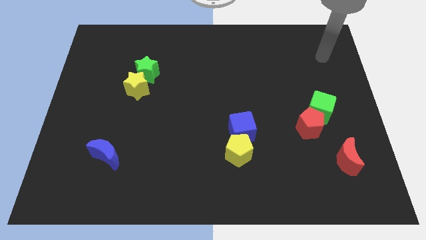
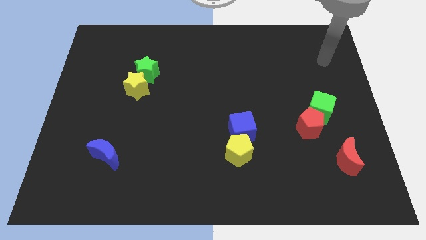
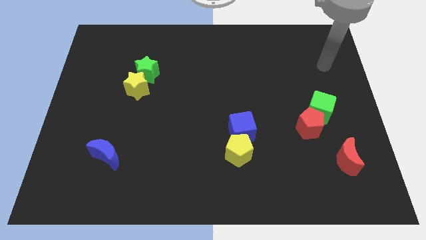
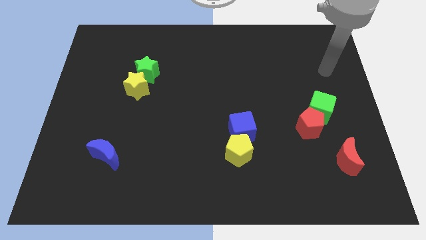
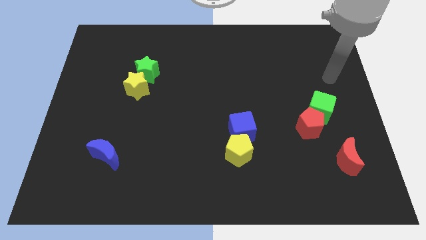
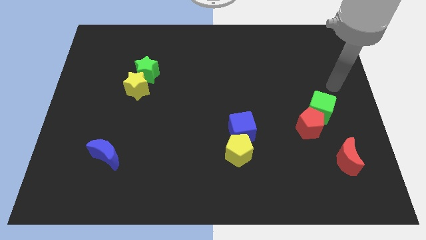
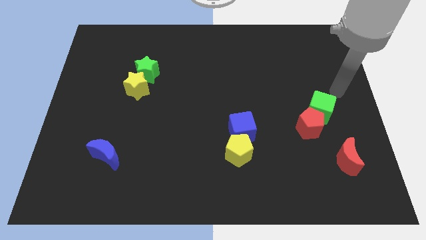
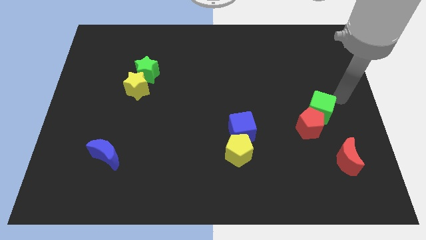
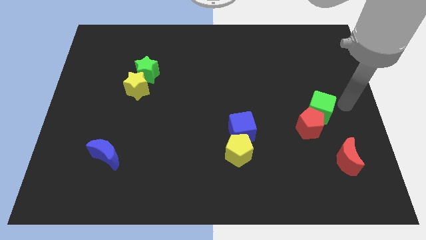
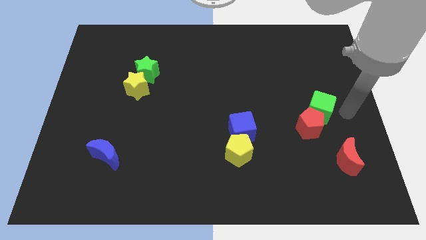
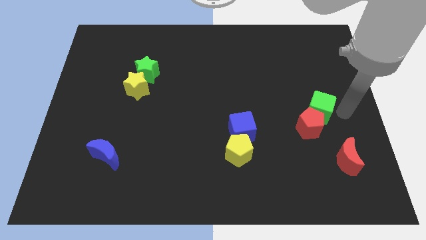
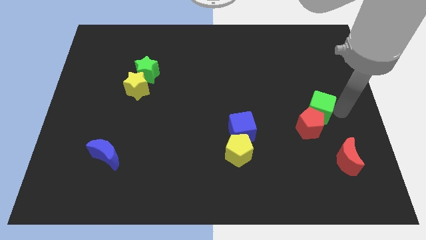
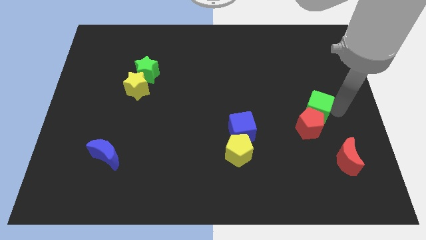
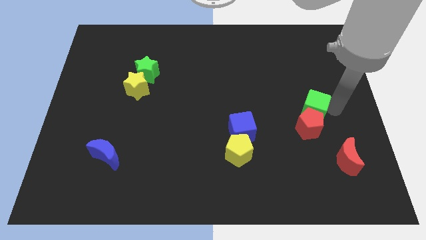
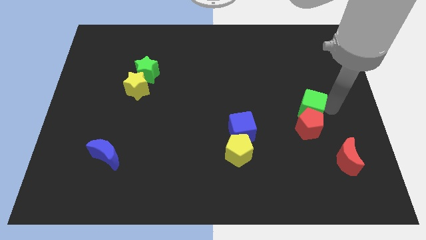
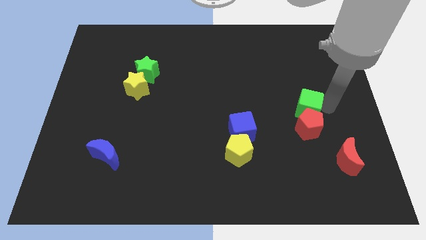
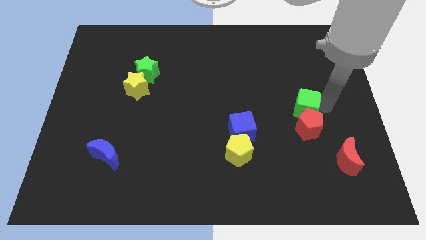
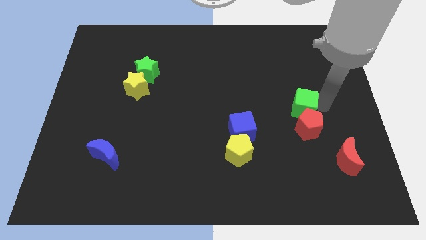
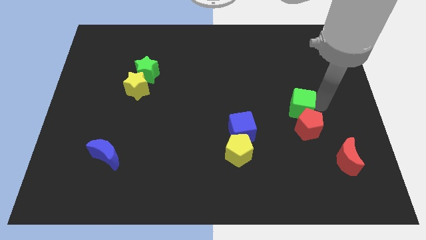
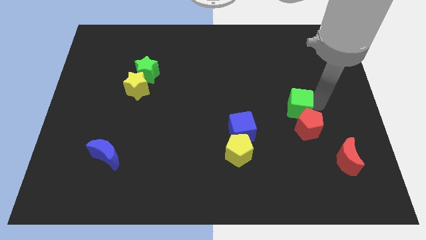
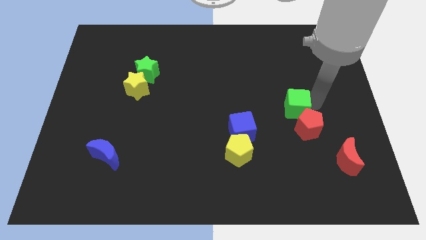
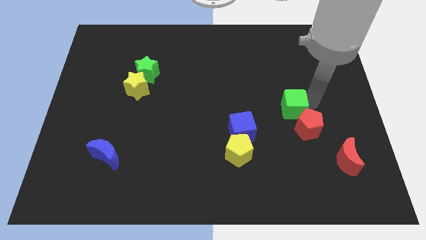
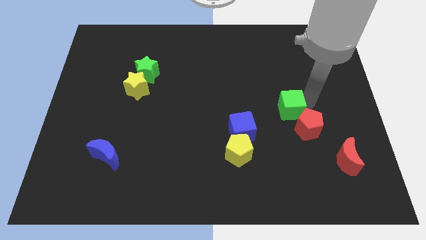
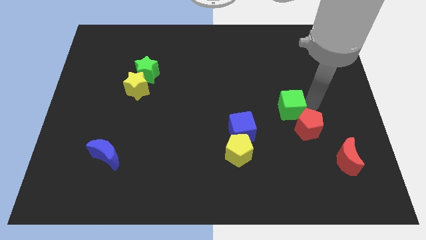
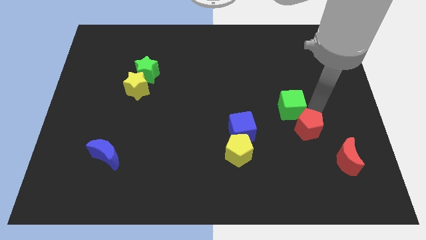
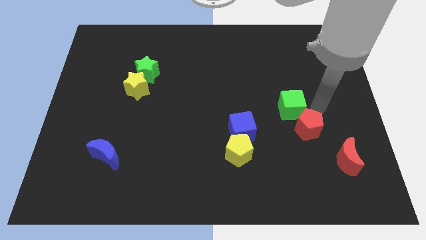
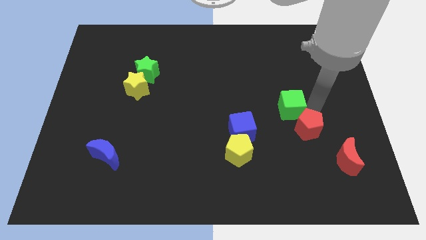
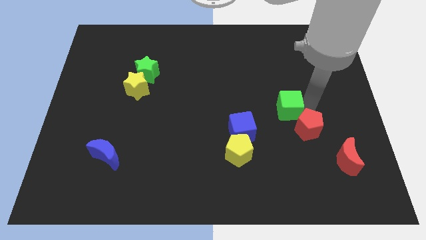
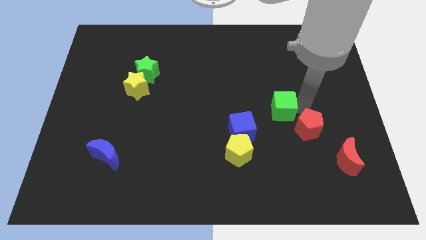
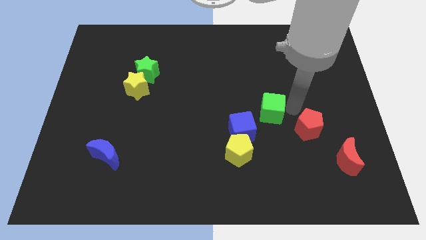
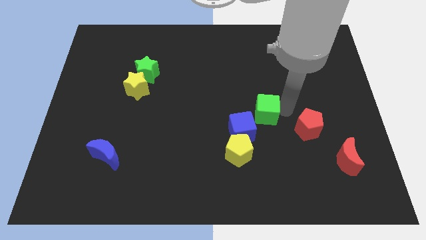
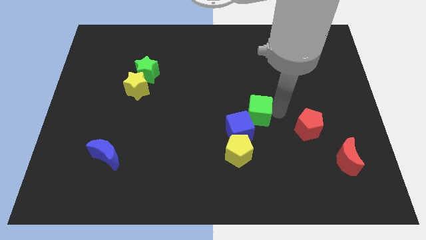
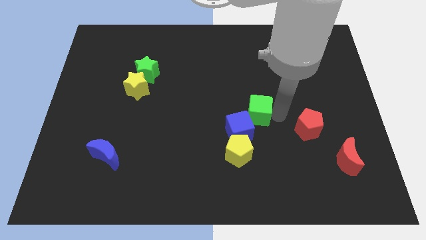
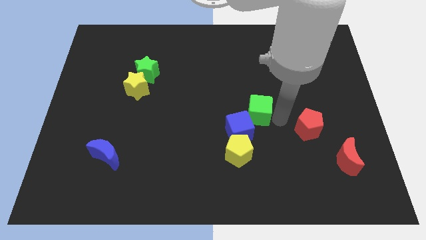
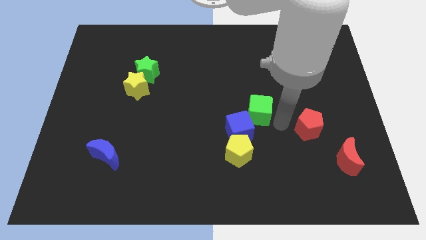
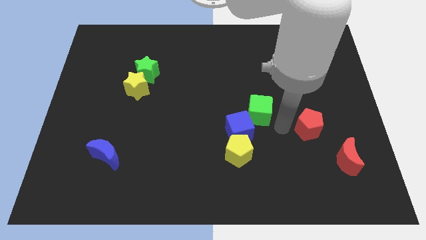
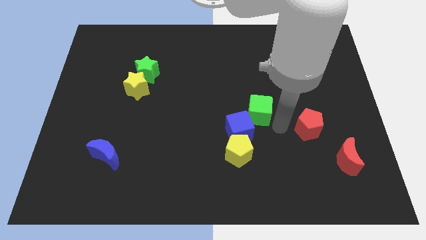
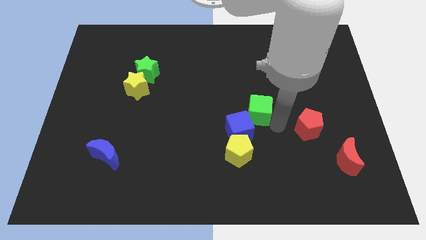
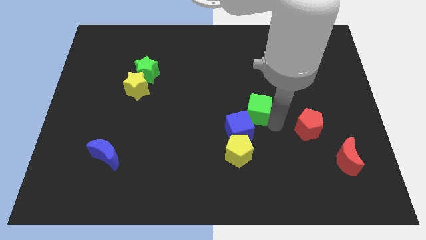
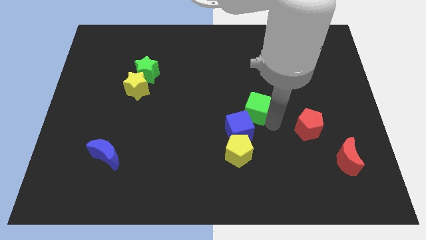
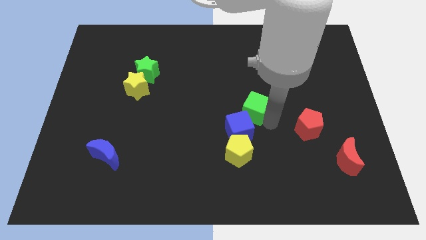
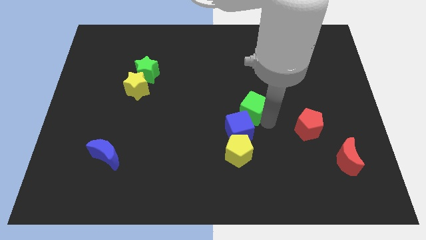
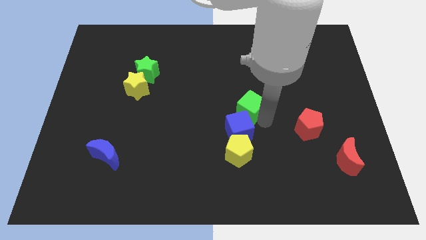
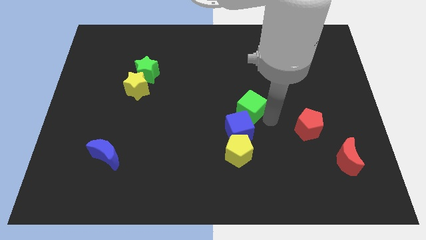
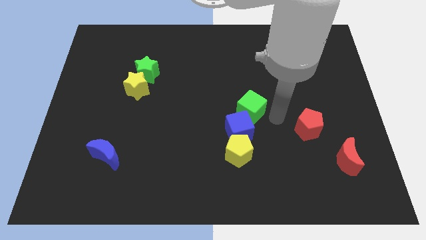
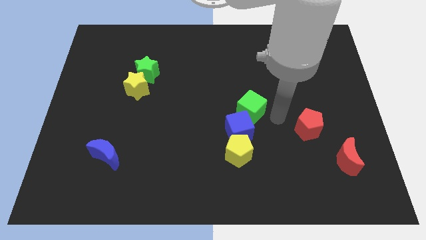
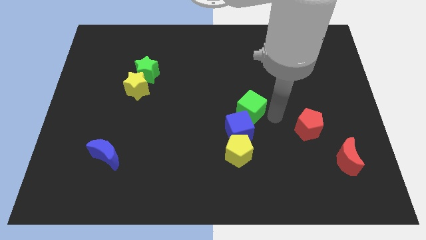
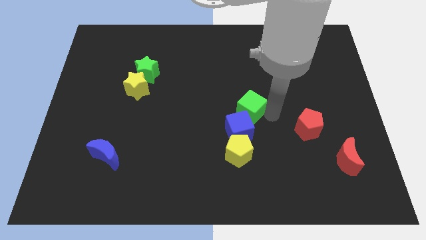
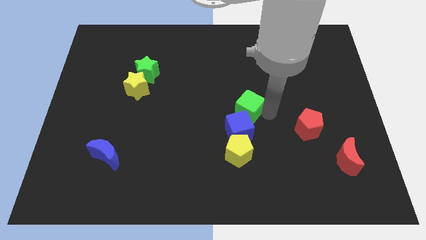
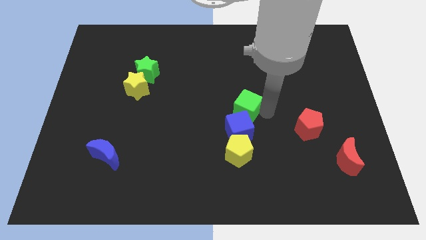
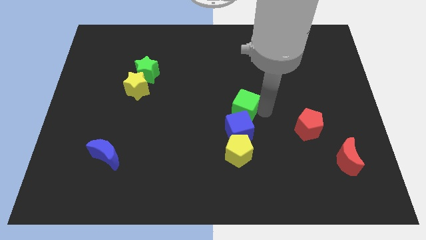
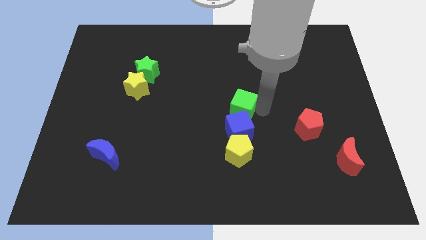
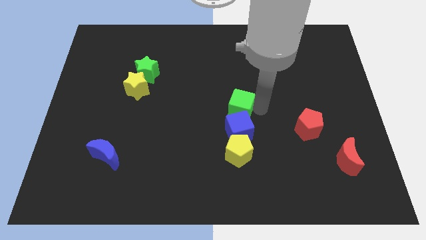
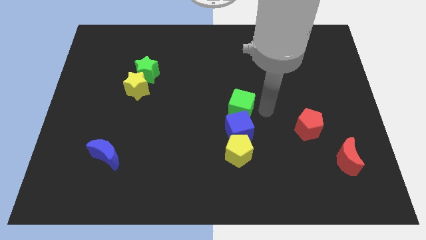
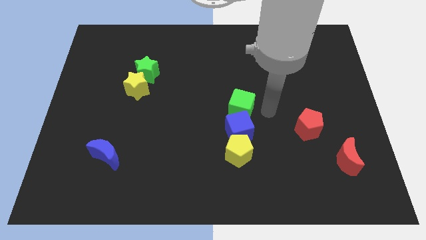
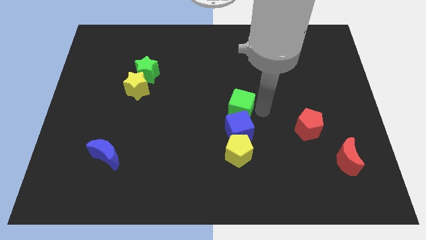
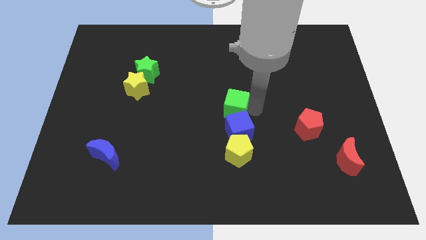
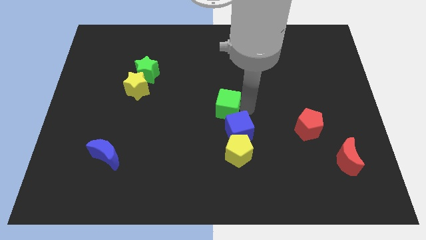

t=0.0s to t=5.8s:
slide the green cube to the left

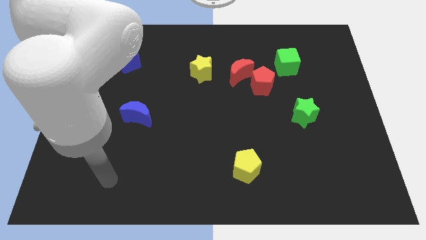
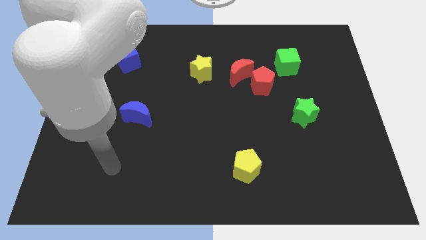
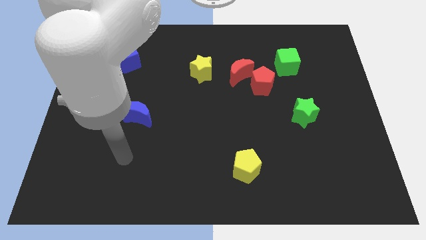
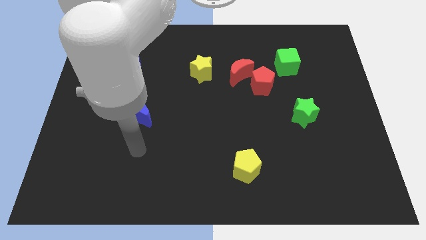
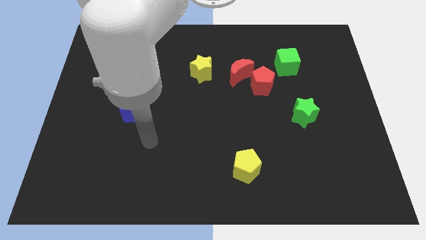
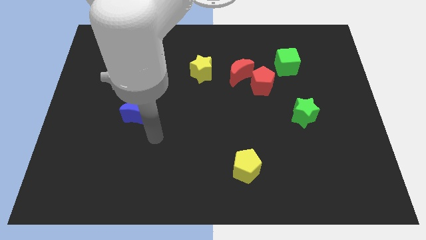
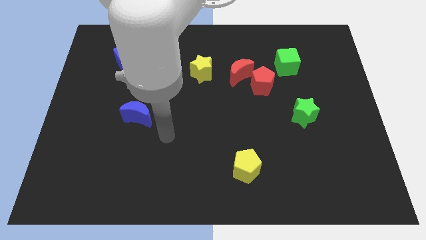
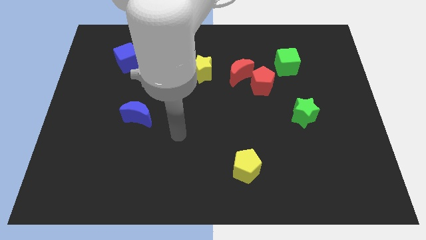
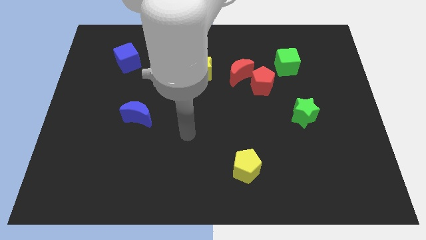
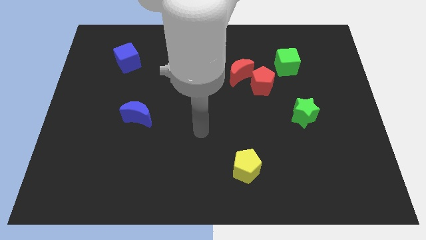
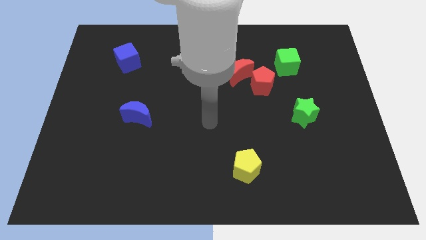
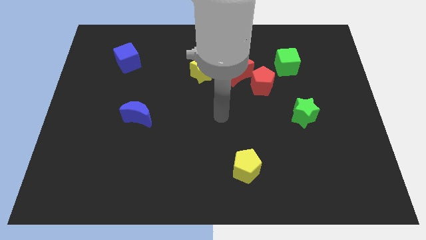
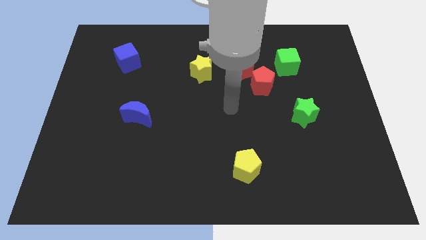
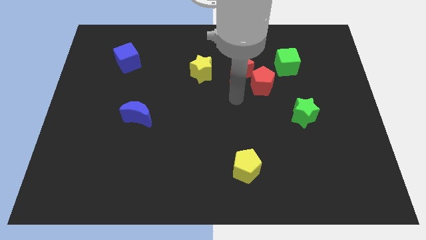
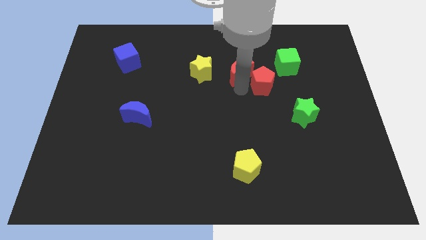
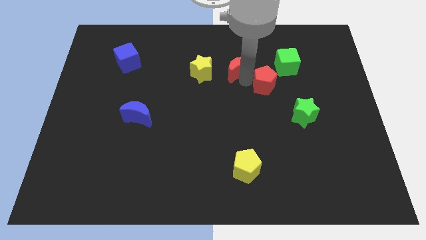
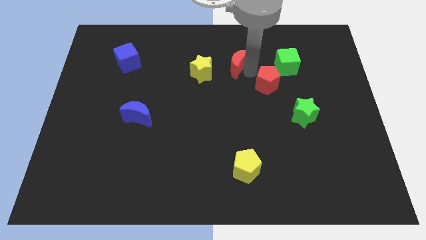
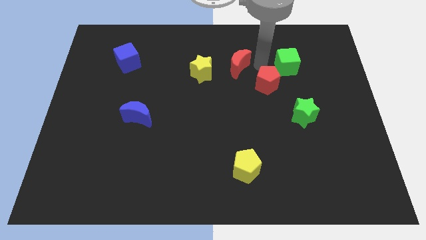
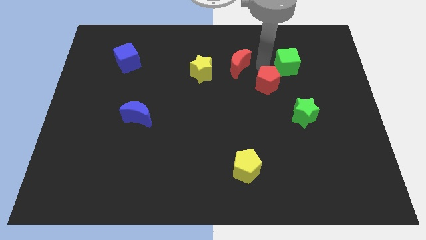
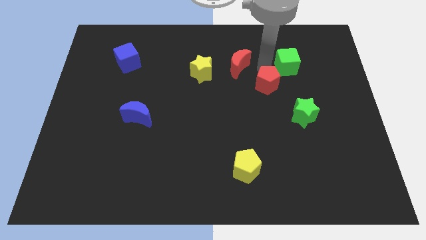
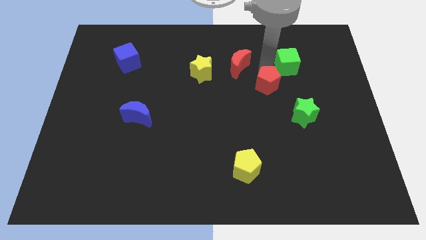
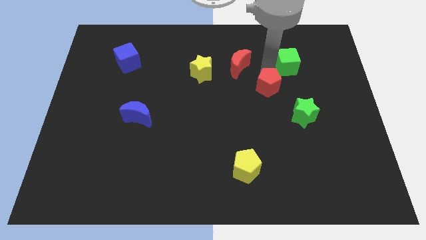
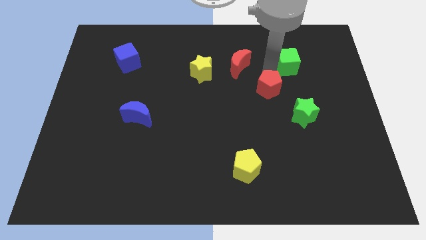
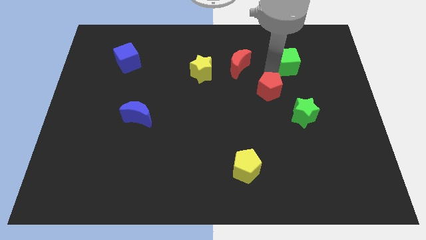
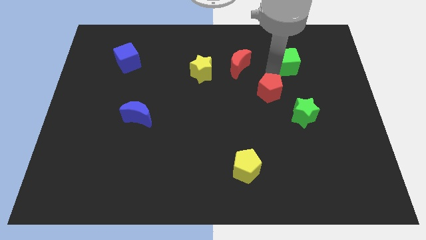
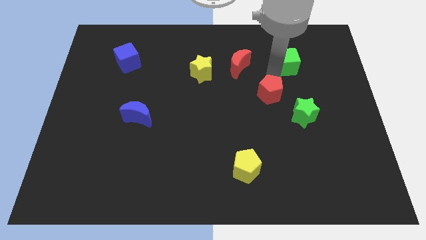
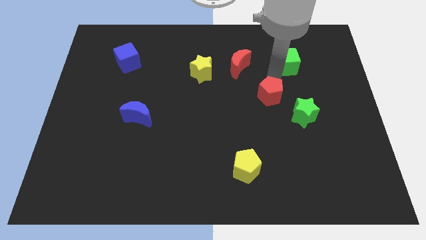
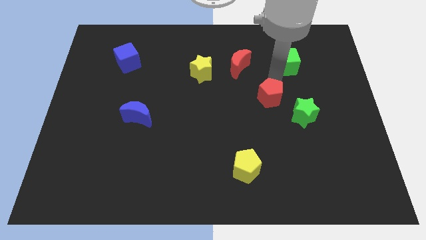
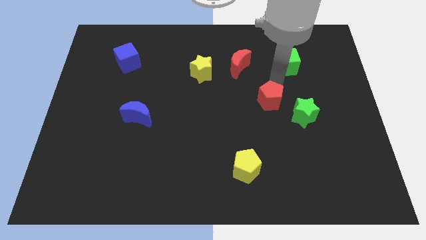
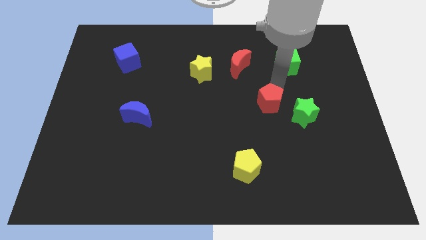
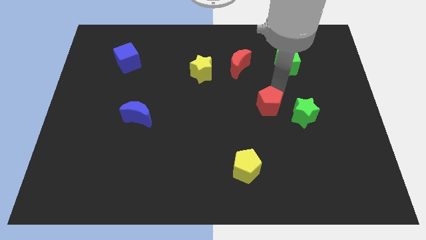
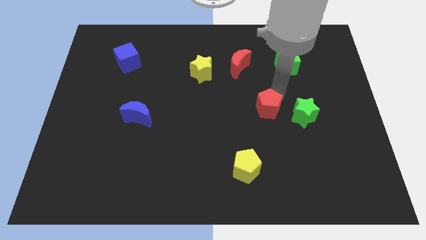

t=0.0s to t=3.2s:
slightly move the red pentagon downwards
